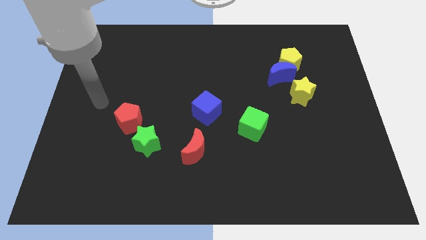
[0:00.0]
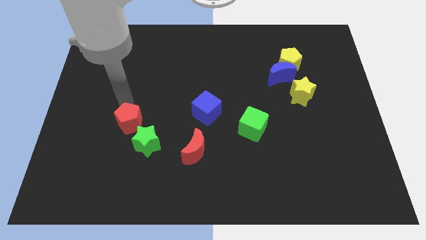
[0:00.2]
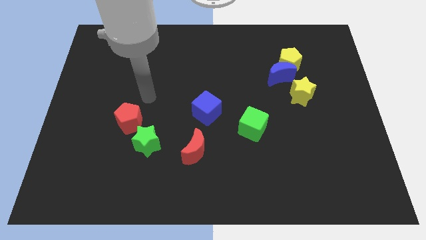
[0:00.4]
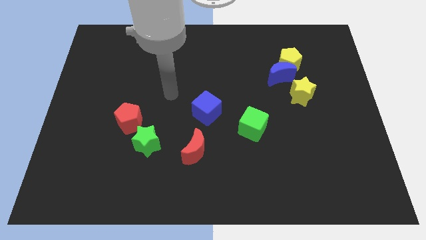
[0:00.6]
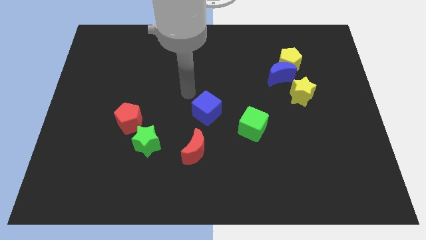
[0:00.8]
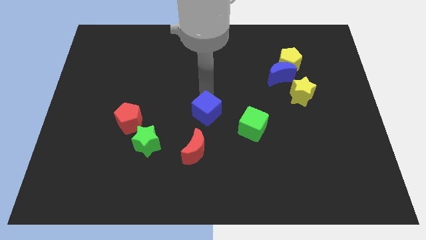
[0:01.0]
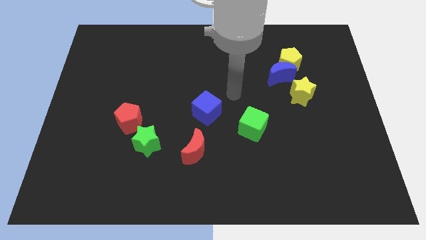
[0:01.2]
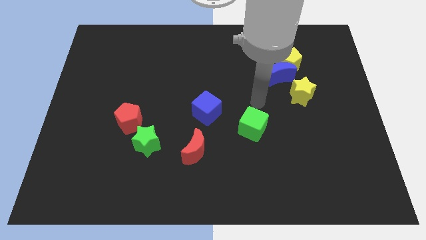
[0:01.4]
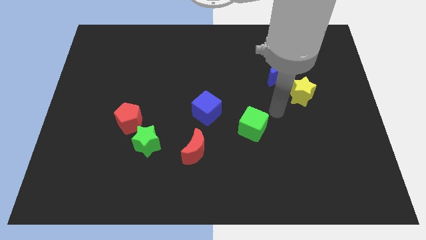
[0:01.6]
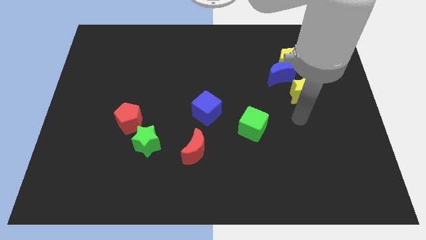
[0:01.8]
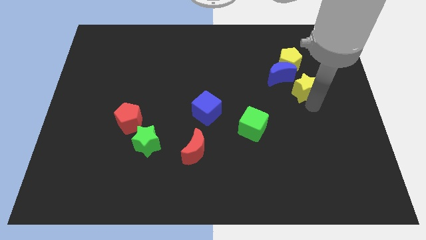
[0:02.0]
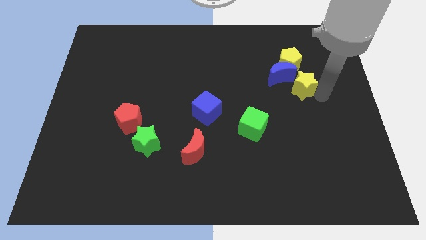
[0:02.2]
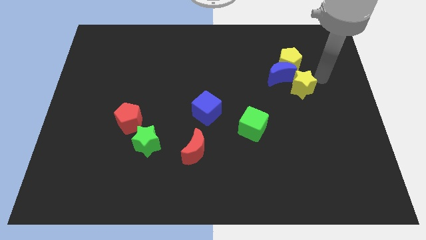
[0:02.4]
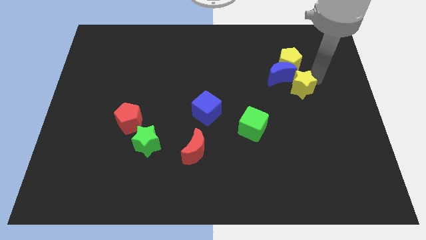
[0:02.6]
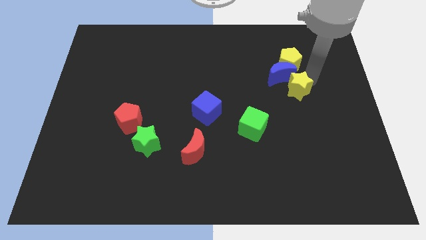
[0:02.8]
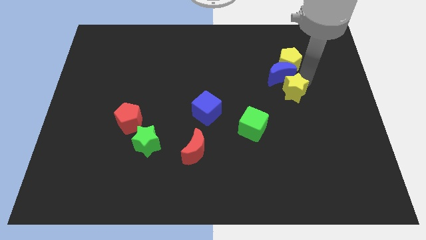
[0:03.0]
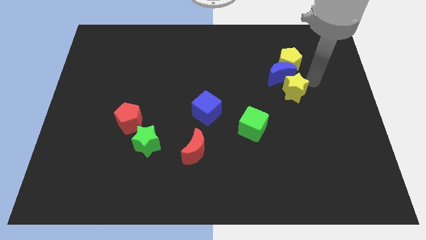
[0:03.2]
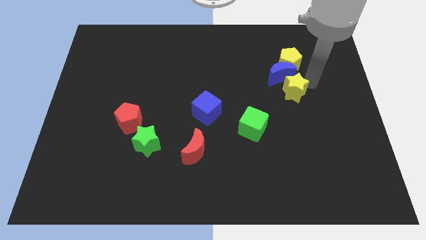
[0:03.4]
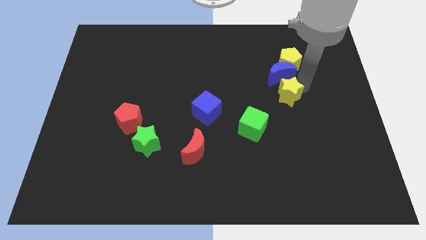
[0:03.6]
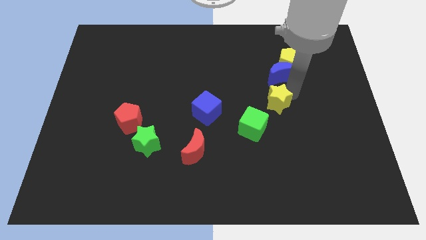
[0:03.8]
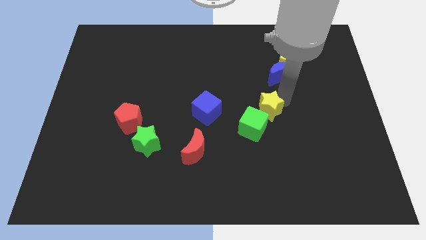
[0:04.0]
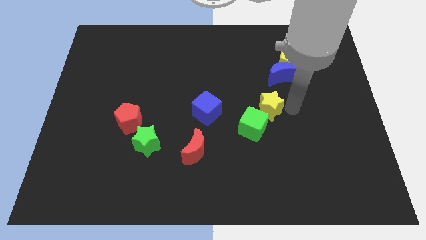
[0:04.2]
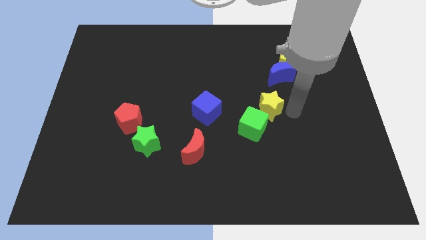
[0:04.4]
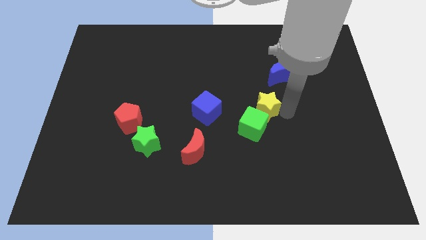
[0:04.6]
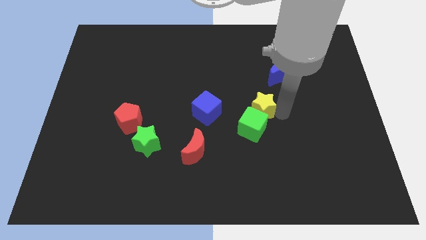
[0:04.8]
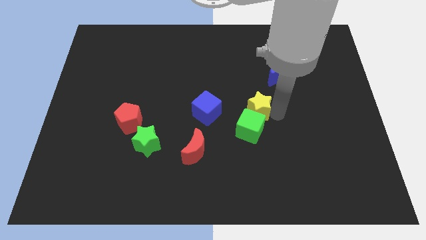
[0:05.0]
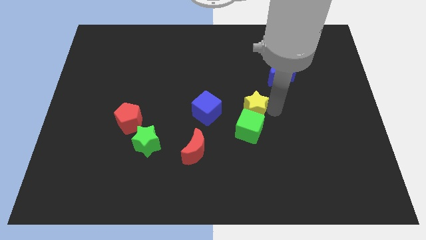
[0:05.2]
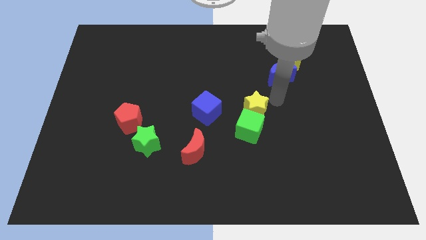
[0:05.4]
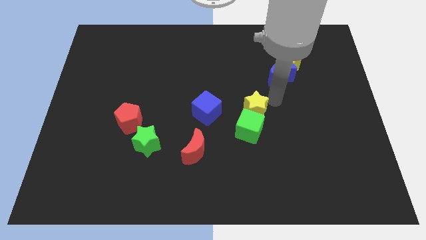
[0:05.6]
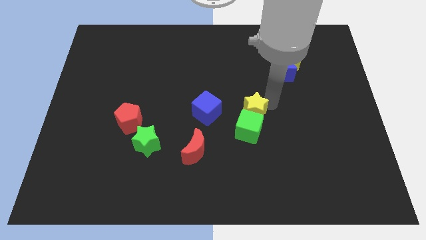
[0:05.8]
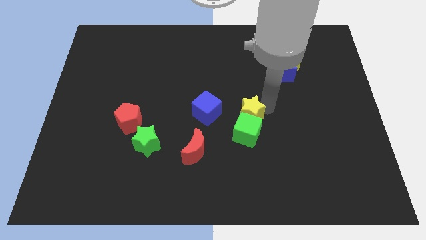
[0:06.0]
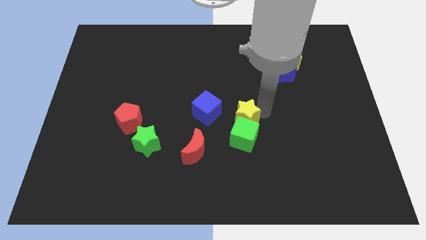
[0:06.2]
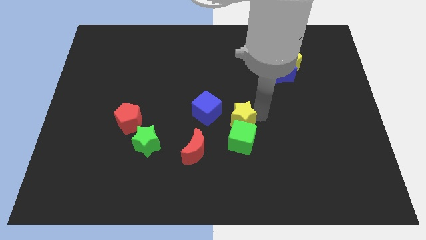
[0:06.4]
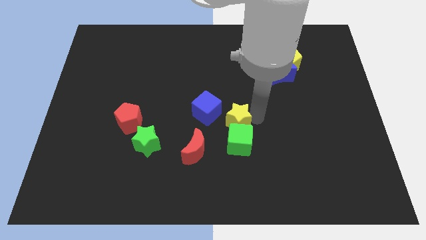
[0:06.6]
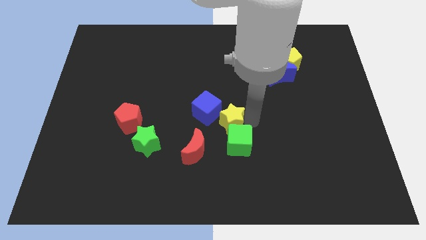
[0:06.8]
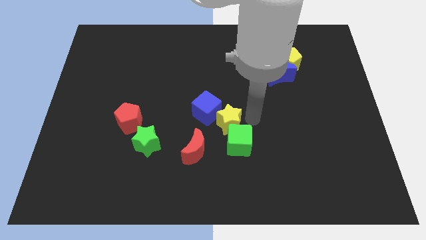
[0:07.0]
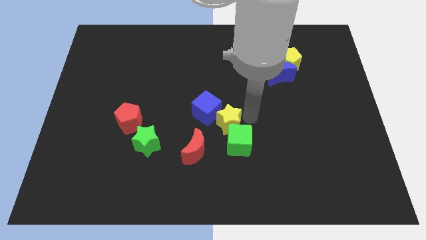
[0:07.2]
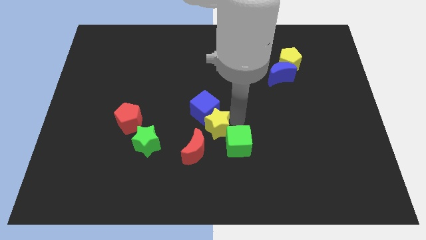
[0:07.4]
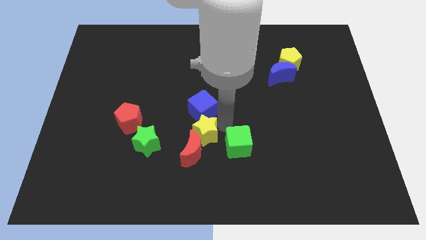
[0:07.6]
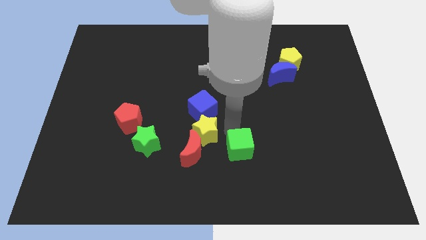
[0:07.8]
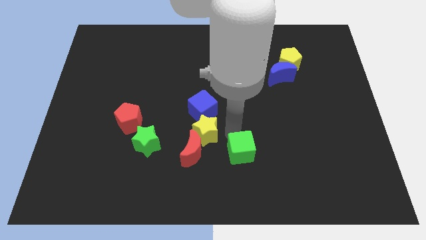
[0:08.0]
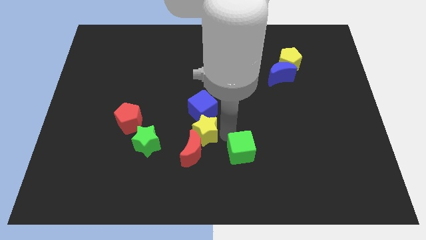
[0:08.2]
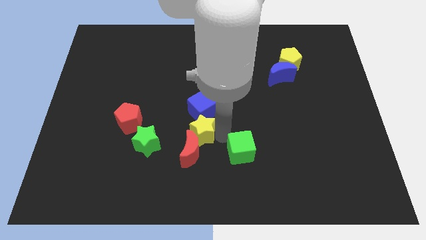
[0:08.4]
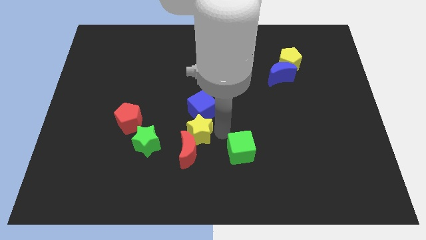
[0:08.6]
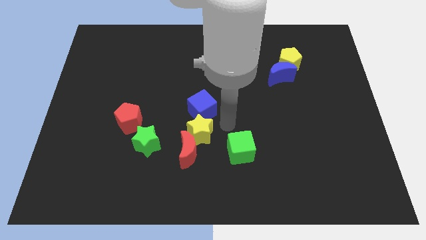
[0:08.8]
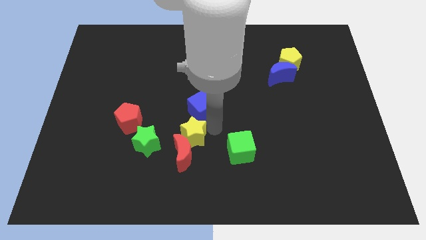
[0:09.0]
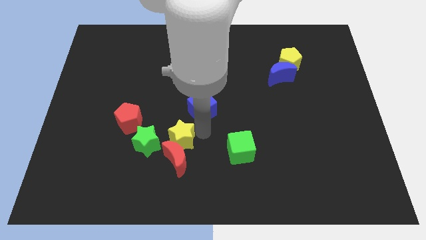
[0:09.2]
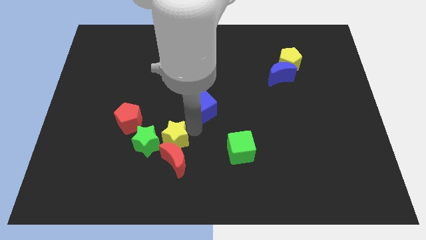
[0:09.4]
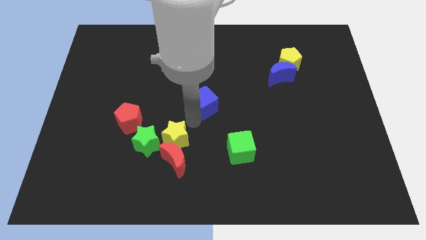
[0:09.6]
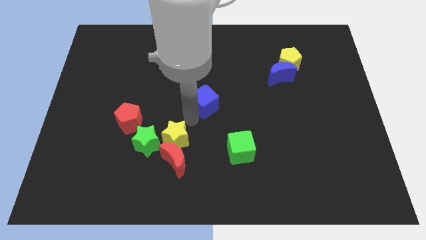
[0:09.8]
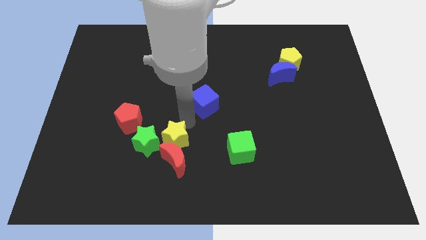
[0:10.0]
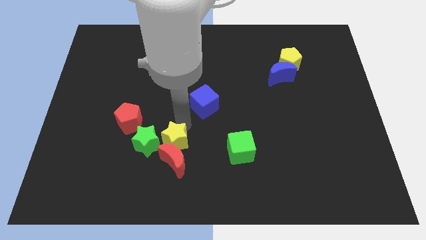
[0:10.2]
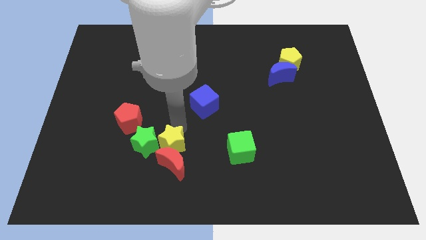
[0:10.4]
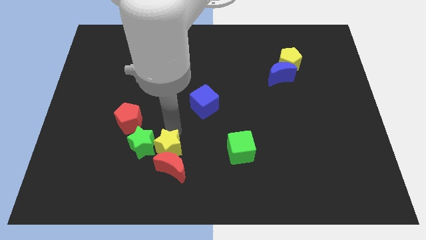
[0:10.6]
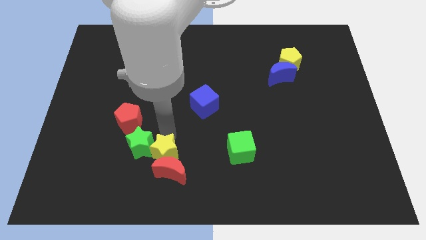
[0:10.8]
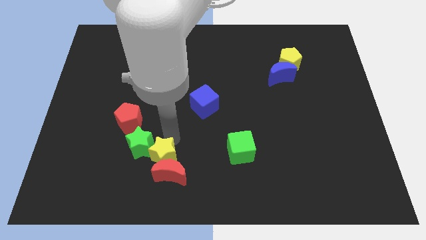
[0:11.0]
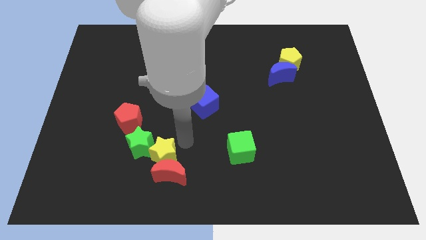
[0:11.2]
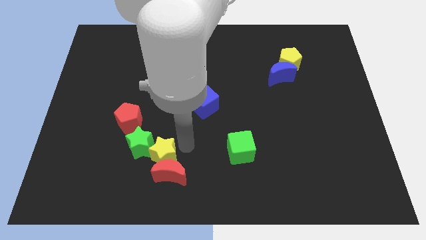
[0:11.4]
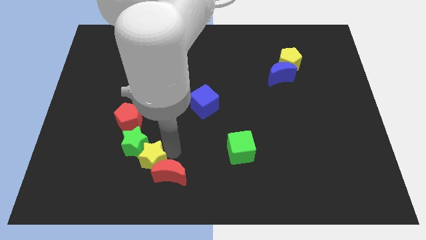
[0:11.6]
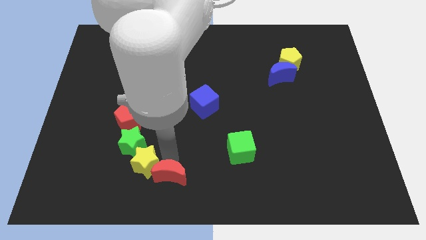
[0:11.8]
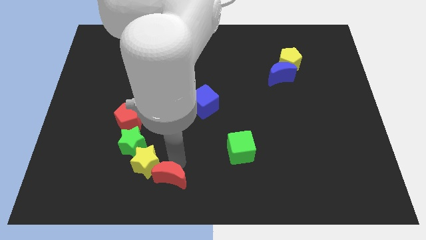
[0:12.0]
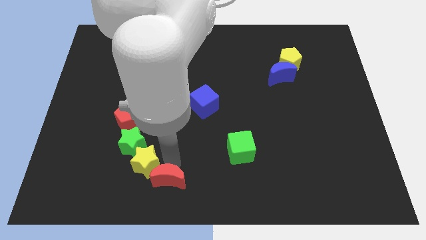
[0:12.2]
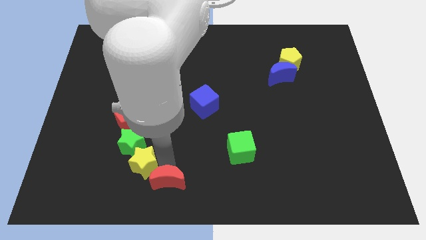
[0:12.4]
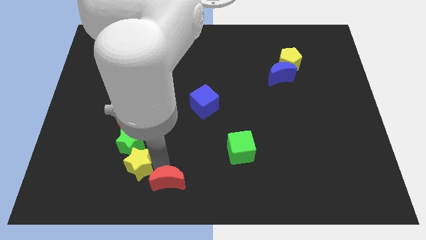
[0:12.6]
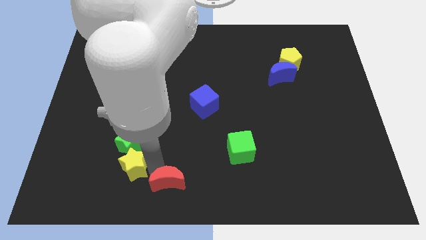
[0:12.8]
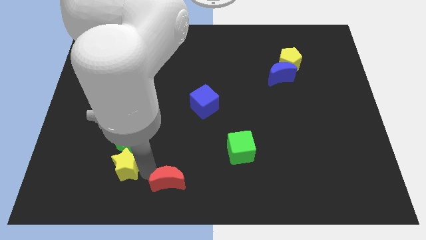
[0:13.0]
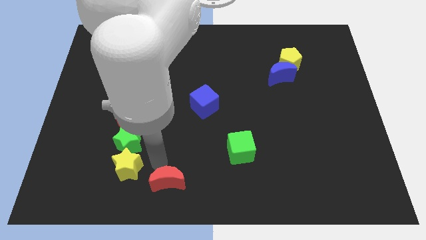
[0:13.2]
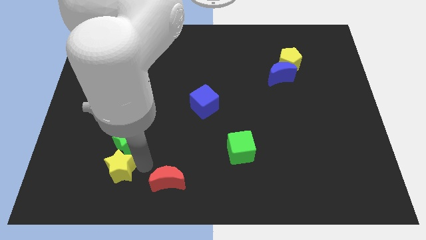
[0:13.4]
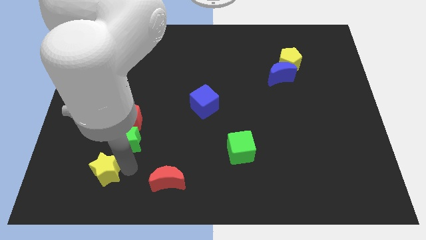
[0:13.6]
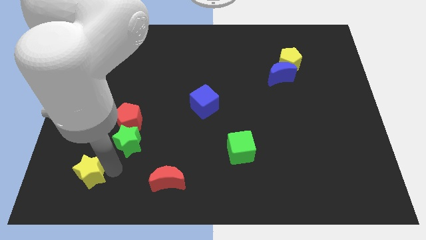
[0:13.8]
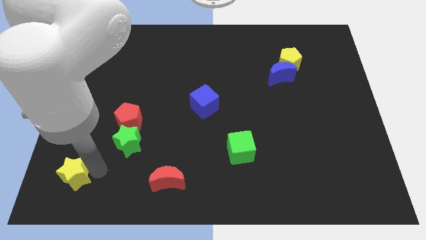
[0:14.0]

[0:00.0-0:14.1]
put the yellow star to the lower left corner
